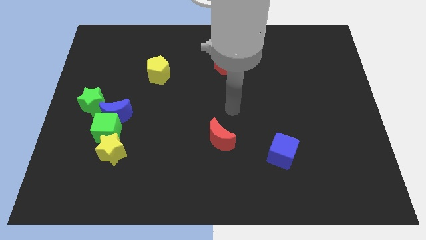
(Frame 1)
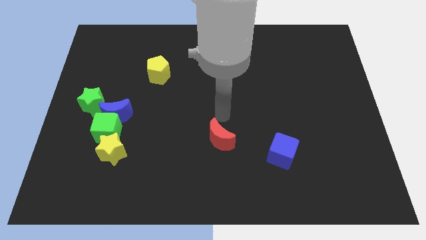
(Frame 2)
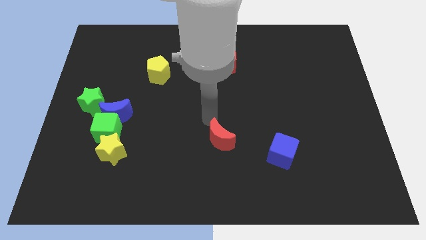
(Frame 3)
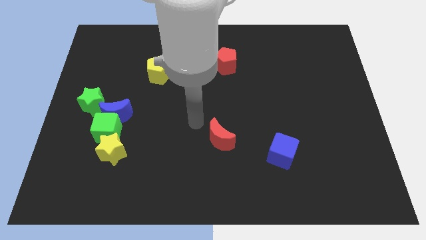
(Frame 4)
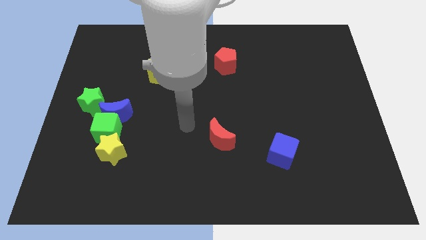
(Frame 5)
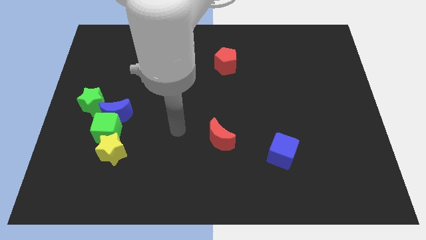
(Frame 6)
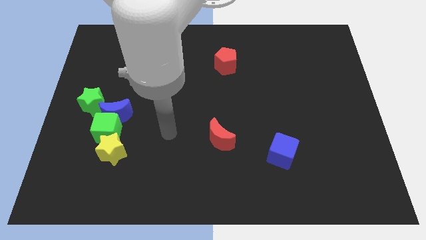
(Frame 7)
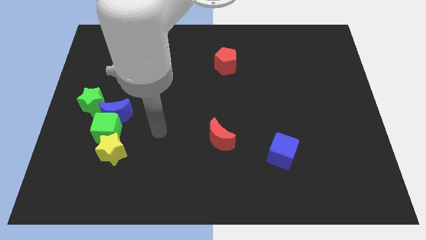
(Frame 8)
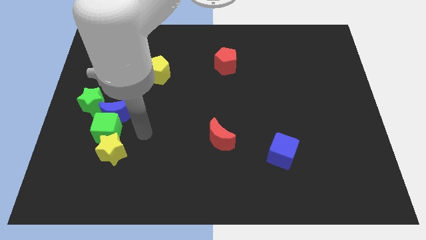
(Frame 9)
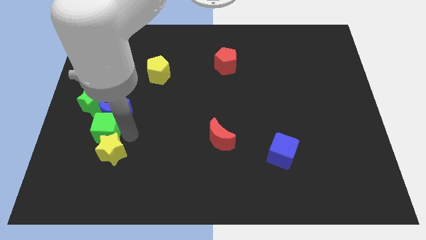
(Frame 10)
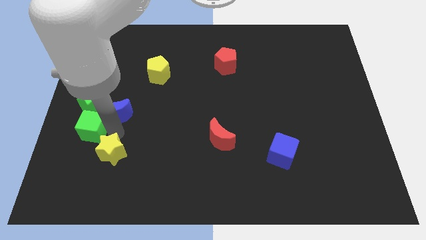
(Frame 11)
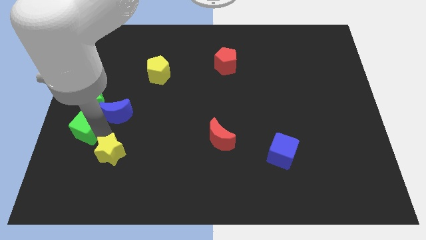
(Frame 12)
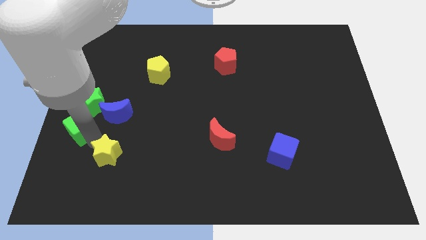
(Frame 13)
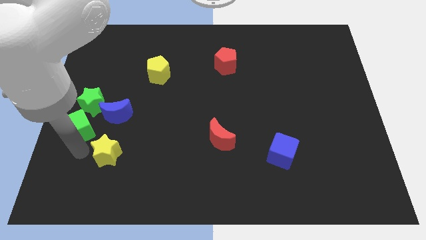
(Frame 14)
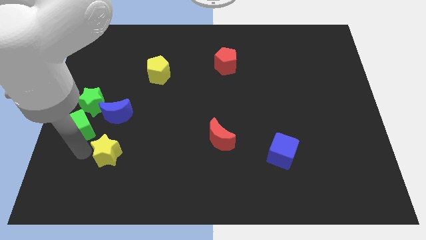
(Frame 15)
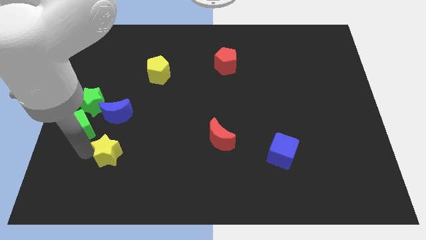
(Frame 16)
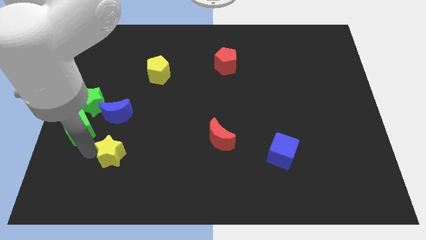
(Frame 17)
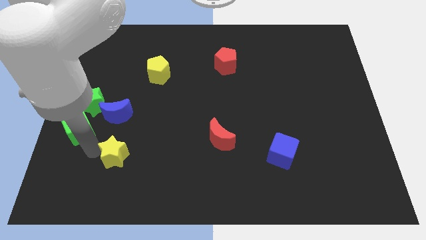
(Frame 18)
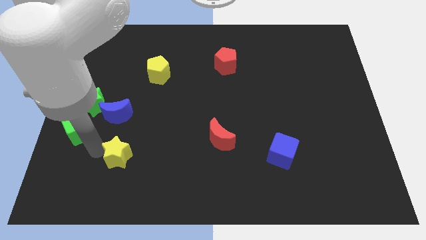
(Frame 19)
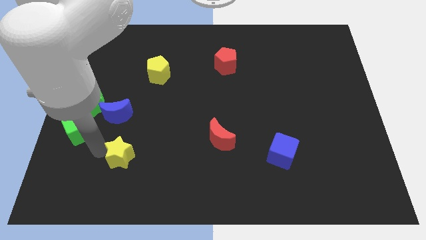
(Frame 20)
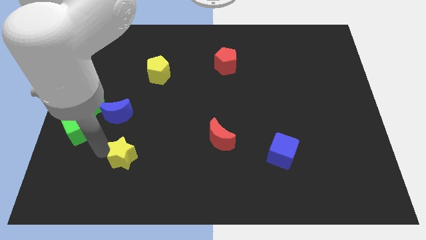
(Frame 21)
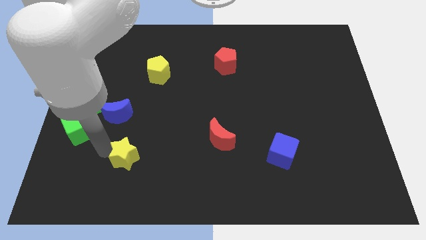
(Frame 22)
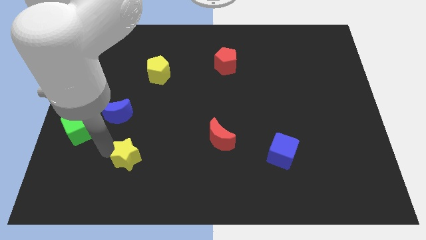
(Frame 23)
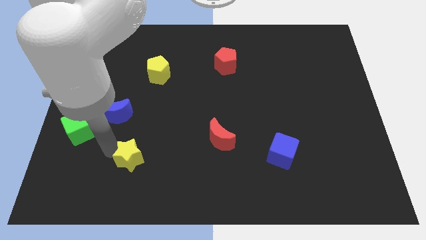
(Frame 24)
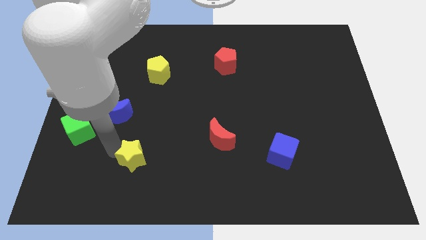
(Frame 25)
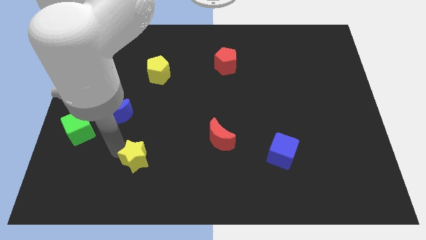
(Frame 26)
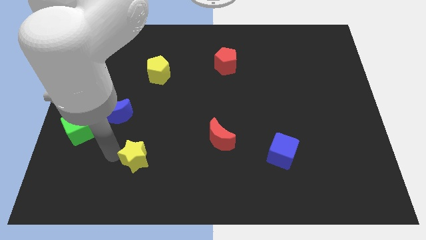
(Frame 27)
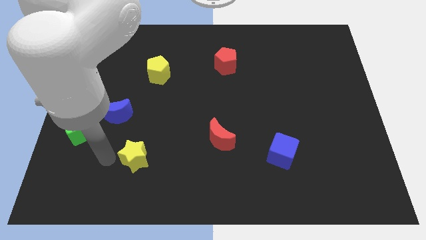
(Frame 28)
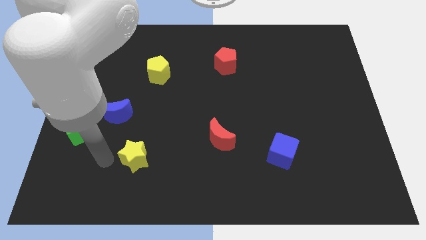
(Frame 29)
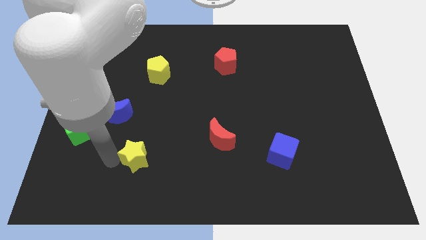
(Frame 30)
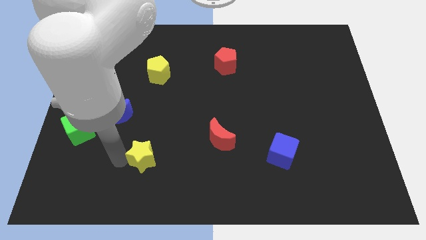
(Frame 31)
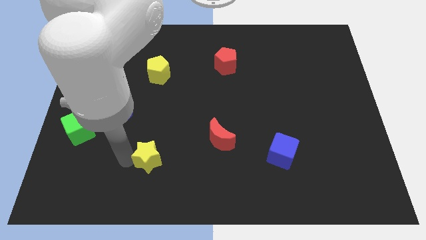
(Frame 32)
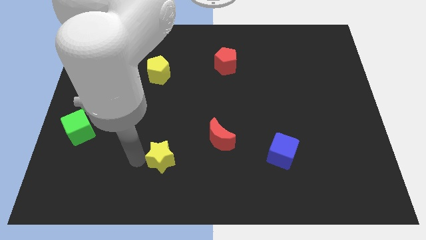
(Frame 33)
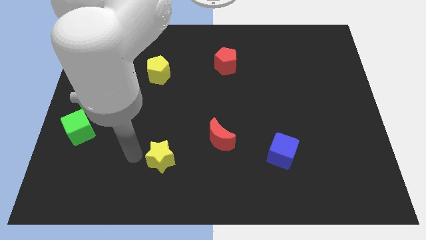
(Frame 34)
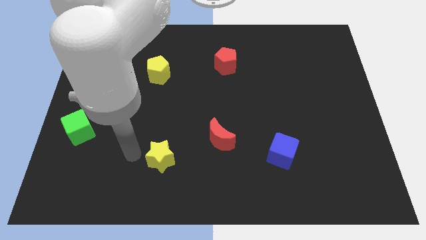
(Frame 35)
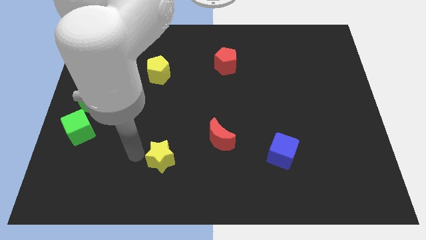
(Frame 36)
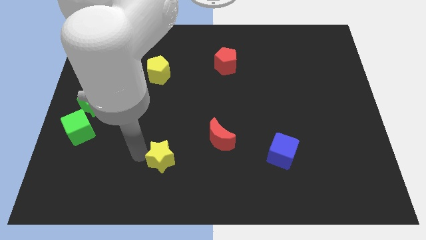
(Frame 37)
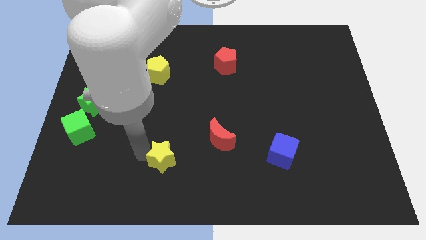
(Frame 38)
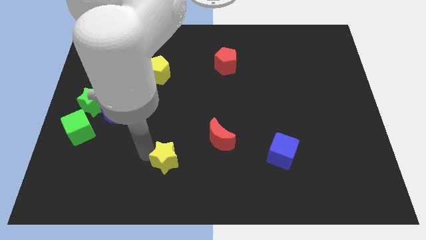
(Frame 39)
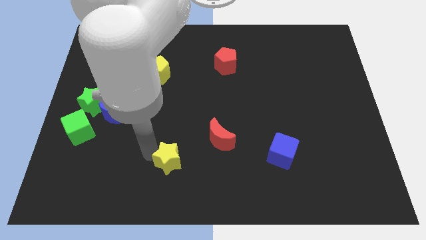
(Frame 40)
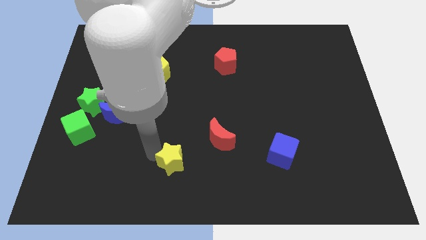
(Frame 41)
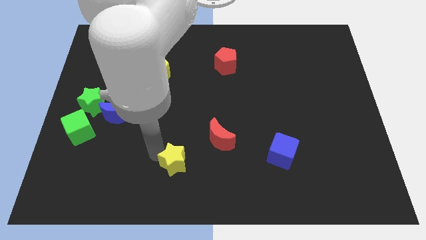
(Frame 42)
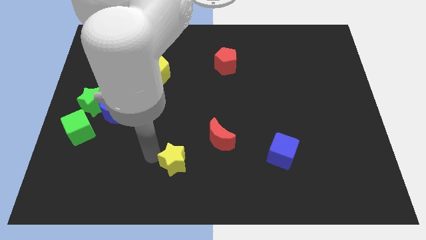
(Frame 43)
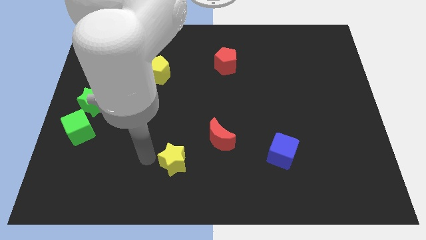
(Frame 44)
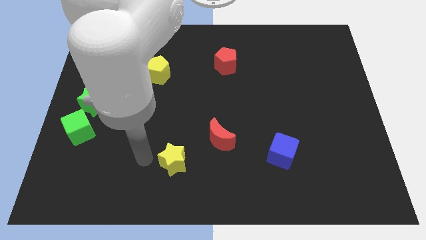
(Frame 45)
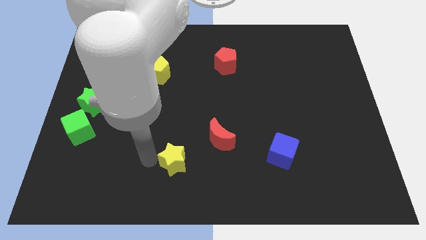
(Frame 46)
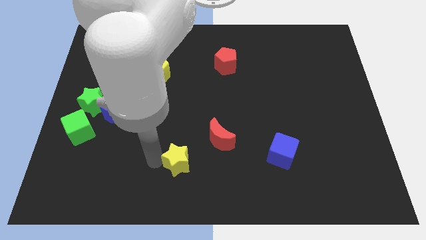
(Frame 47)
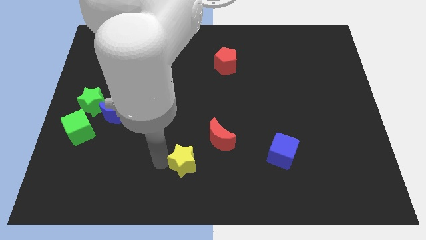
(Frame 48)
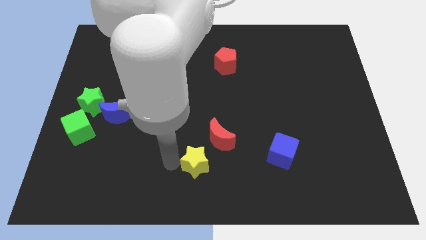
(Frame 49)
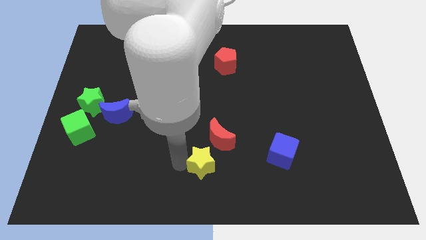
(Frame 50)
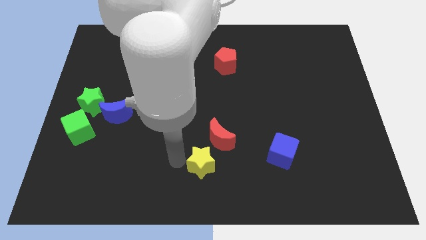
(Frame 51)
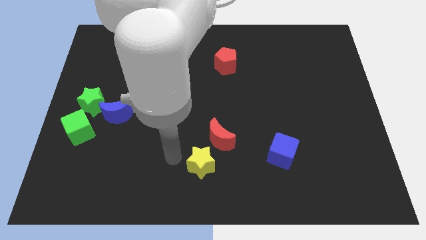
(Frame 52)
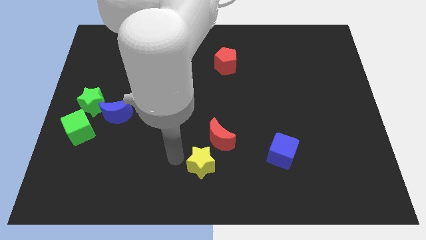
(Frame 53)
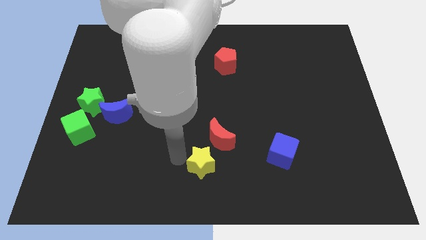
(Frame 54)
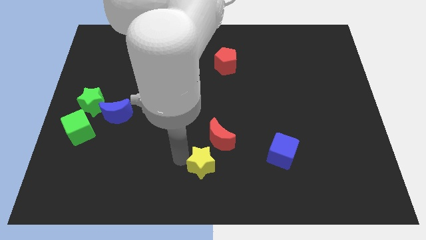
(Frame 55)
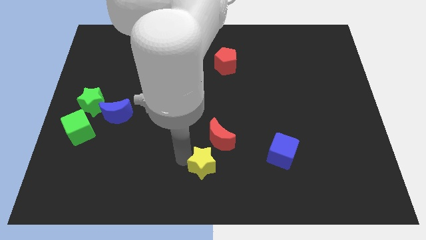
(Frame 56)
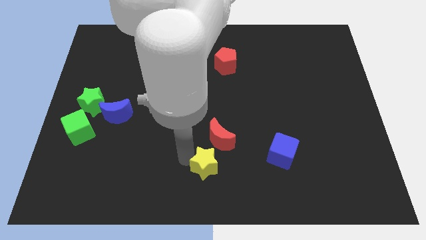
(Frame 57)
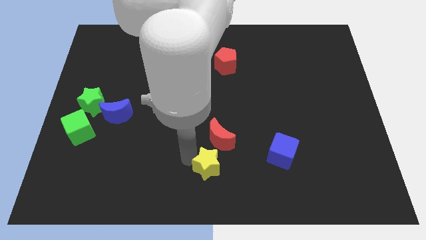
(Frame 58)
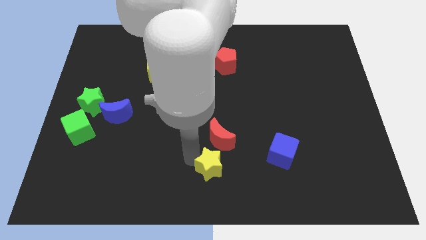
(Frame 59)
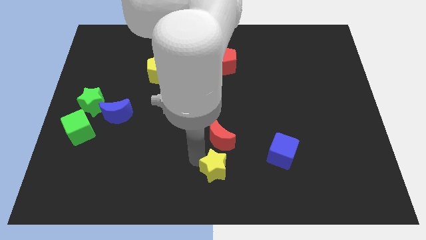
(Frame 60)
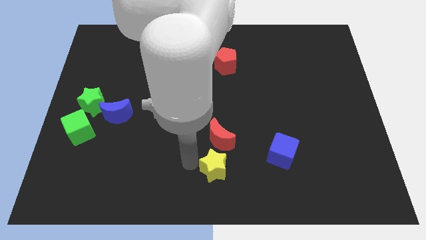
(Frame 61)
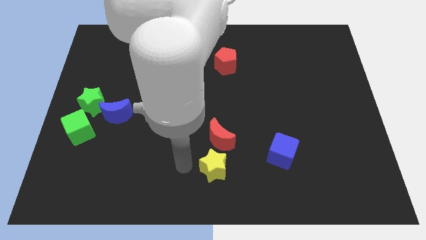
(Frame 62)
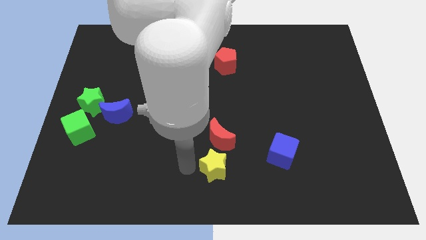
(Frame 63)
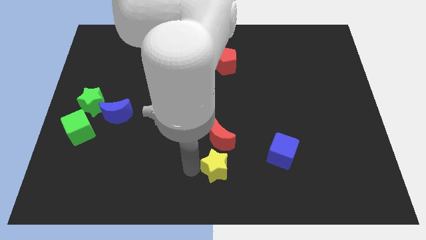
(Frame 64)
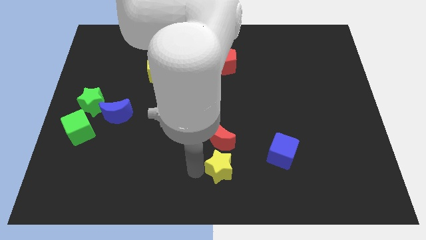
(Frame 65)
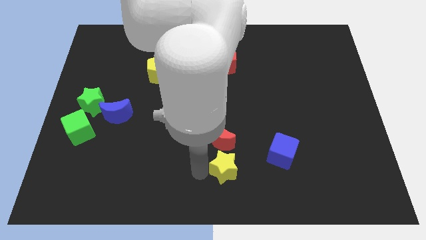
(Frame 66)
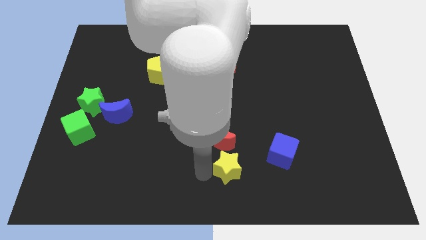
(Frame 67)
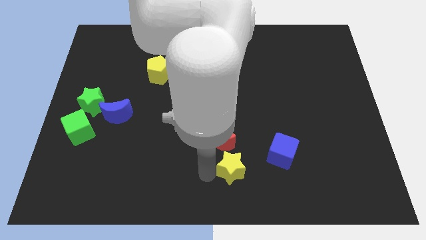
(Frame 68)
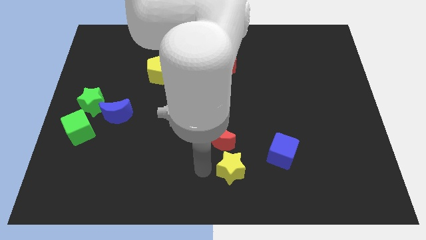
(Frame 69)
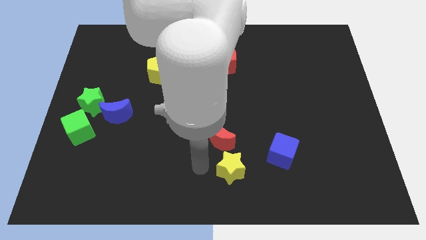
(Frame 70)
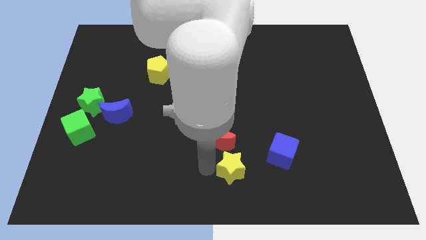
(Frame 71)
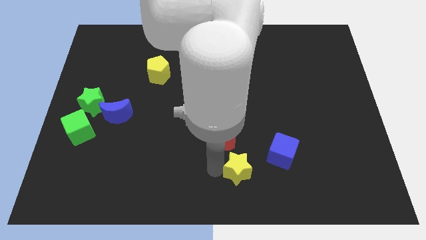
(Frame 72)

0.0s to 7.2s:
push the yellow star diagonally down and to the left of the blue cube

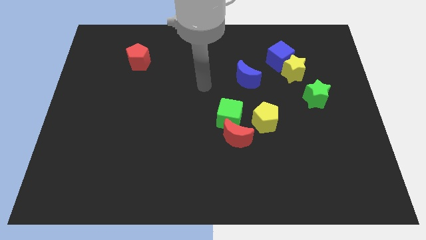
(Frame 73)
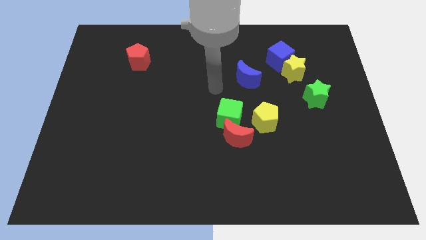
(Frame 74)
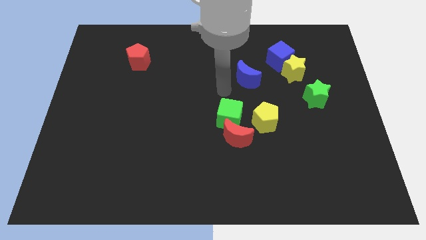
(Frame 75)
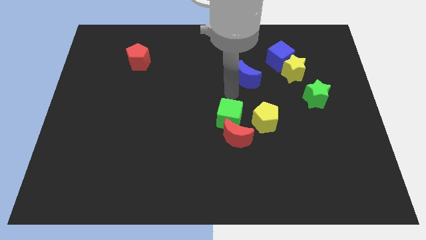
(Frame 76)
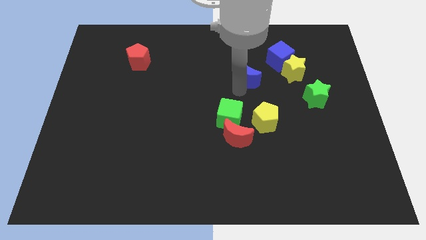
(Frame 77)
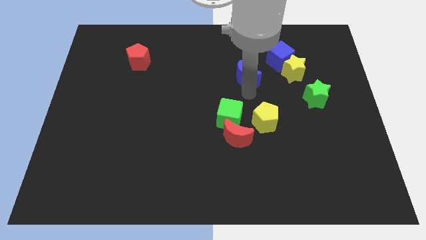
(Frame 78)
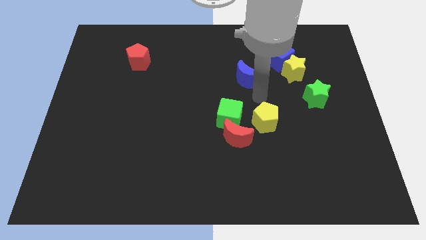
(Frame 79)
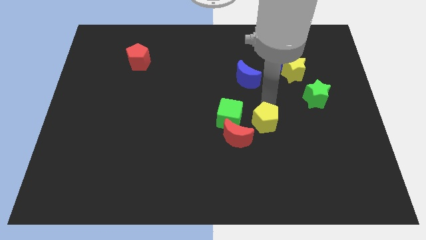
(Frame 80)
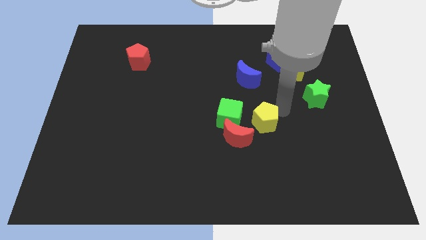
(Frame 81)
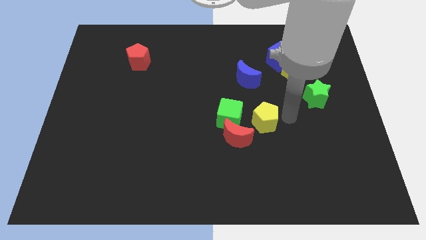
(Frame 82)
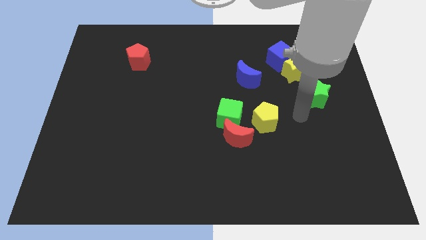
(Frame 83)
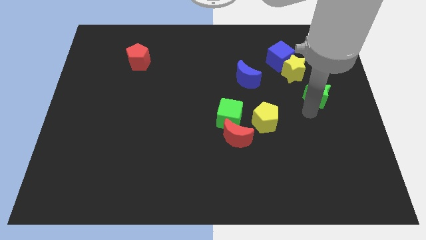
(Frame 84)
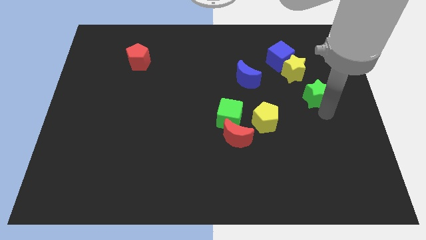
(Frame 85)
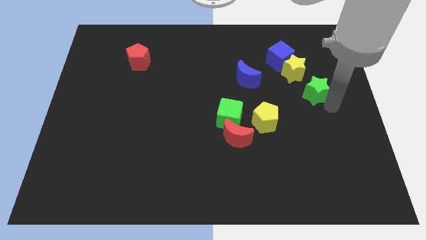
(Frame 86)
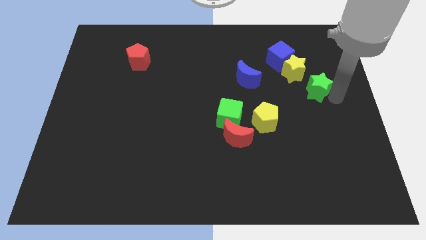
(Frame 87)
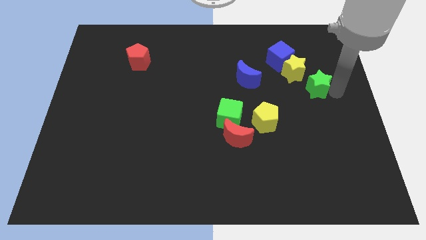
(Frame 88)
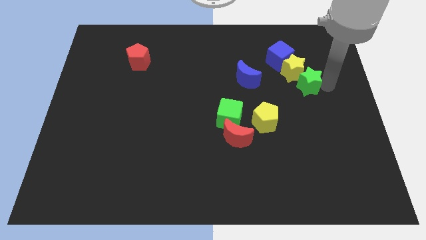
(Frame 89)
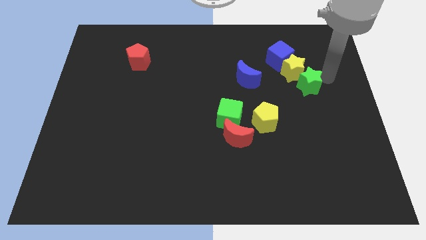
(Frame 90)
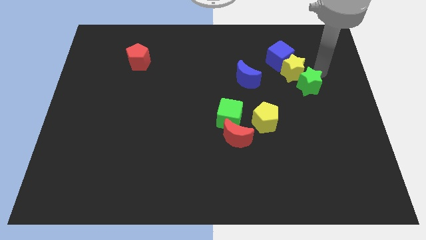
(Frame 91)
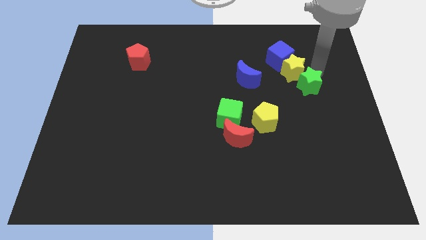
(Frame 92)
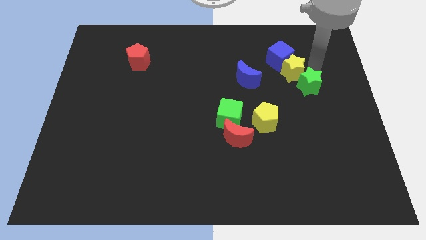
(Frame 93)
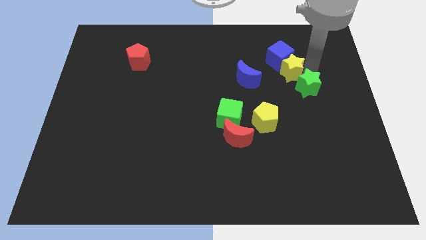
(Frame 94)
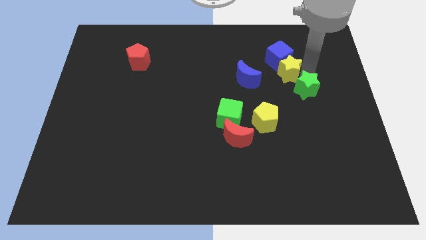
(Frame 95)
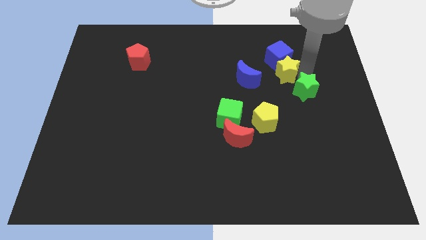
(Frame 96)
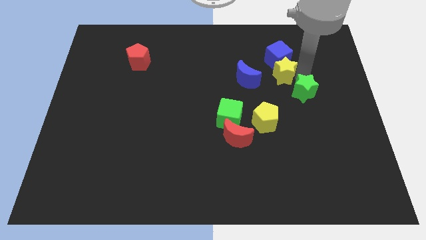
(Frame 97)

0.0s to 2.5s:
move the yellow star to the bottom left of the blue cube
